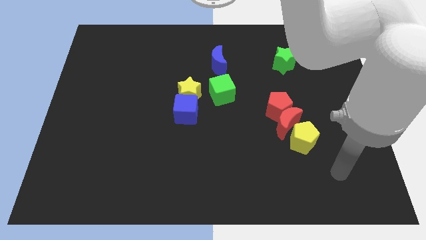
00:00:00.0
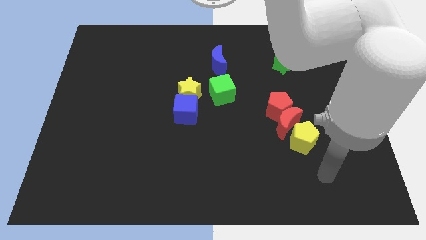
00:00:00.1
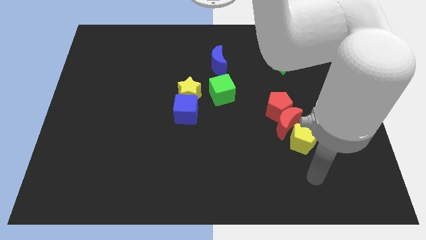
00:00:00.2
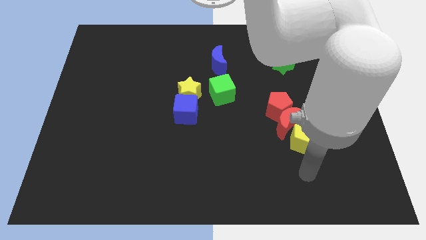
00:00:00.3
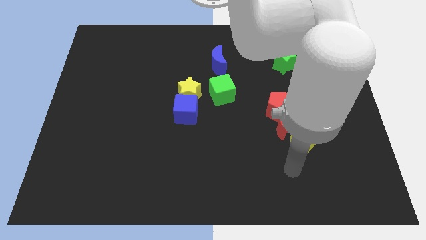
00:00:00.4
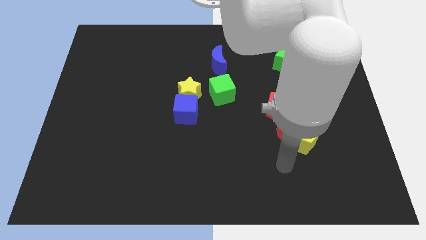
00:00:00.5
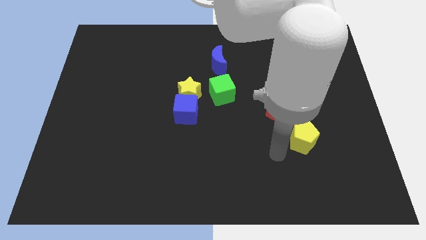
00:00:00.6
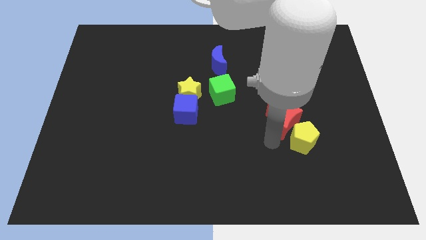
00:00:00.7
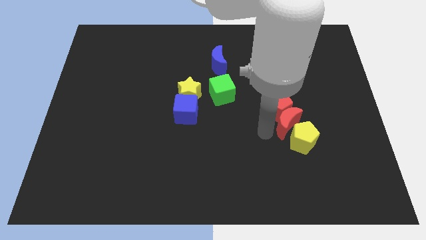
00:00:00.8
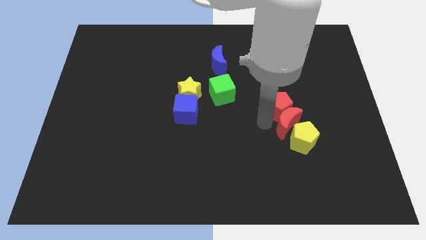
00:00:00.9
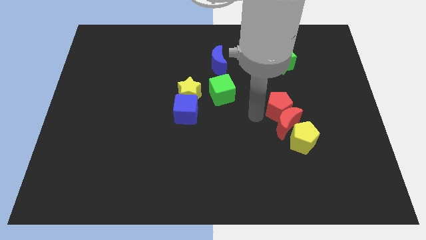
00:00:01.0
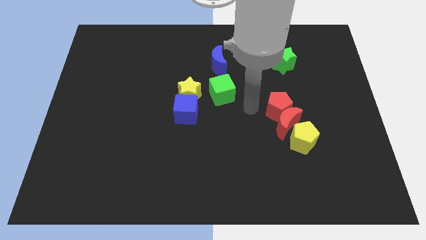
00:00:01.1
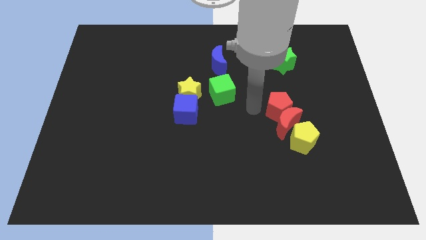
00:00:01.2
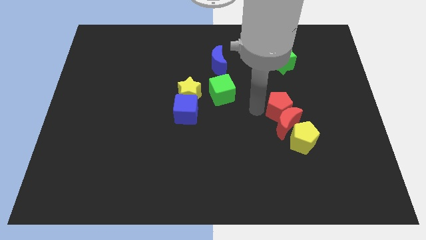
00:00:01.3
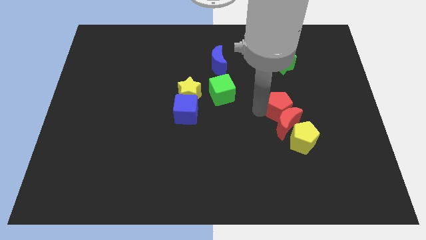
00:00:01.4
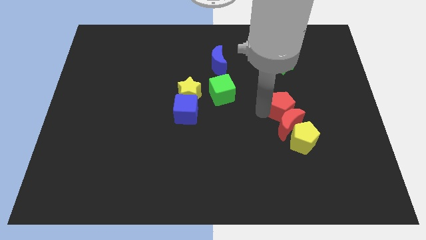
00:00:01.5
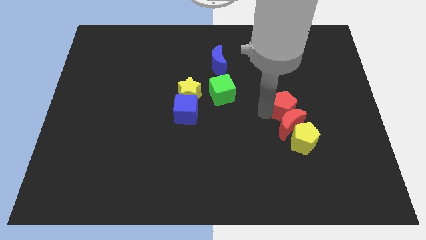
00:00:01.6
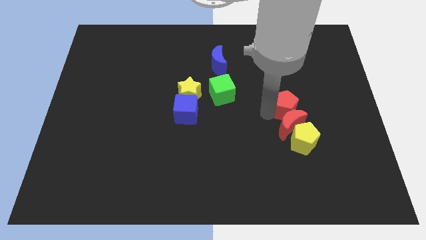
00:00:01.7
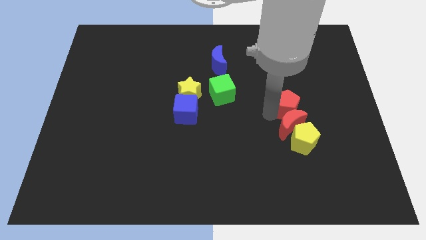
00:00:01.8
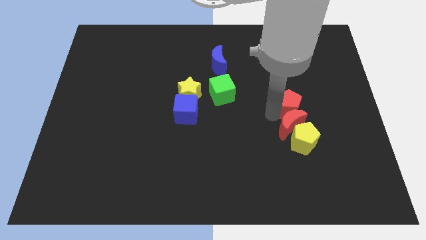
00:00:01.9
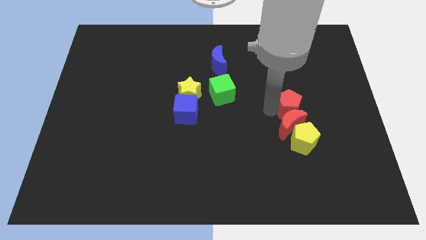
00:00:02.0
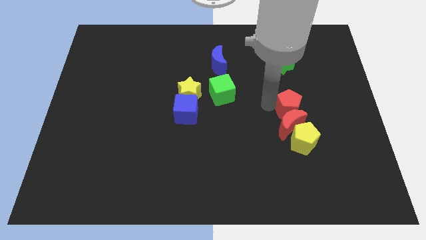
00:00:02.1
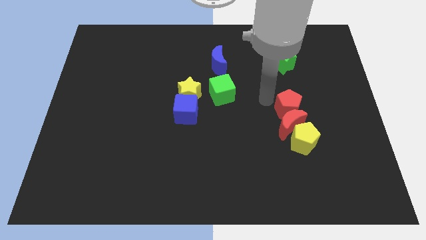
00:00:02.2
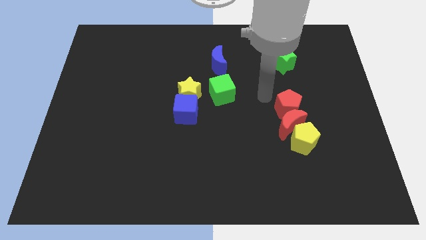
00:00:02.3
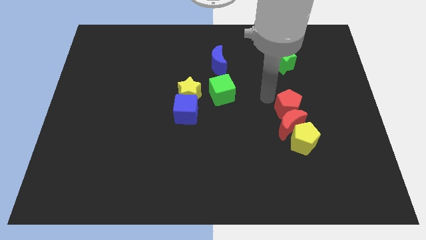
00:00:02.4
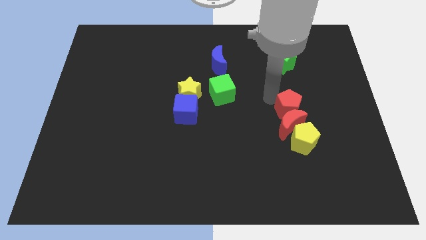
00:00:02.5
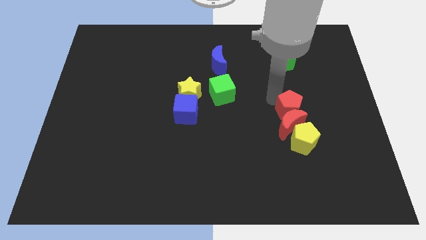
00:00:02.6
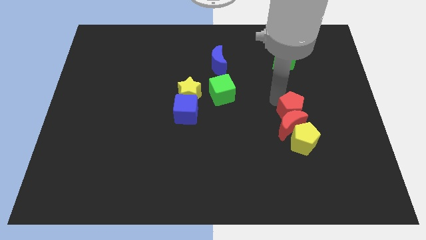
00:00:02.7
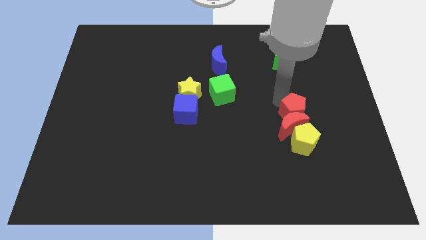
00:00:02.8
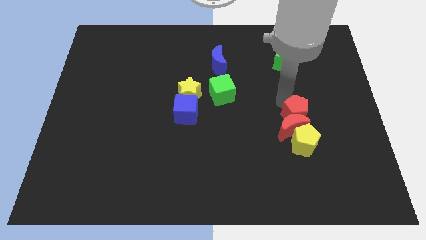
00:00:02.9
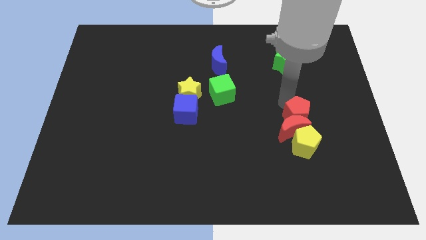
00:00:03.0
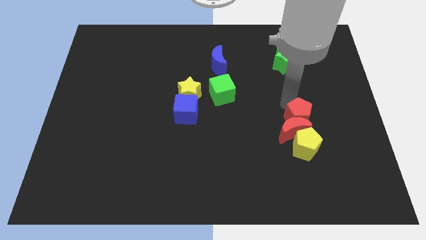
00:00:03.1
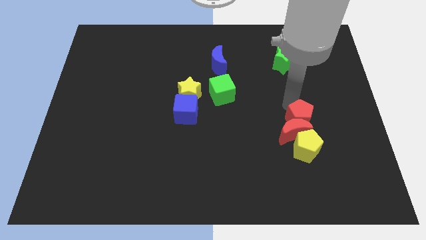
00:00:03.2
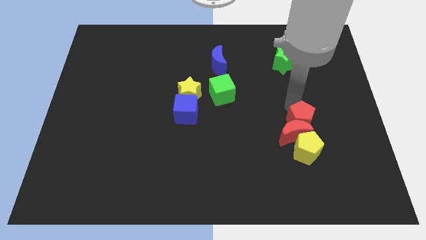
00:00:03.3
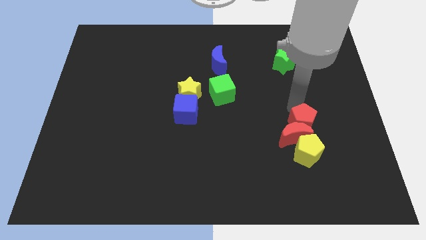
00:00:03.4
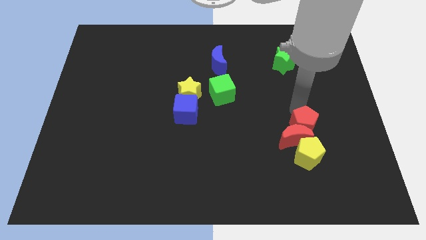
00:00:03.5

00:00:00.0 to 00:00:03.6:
slightly push the red pentagon downwards and right diagonally

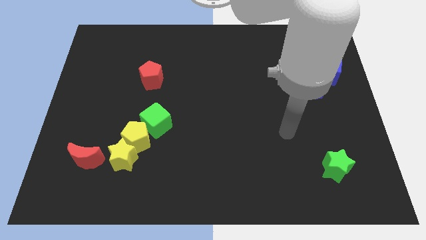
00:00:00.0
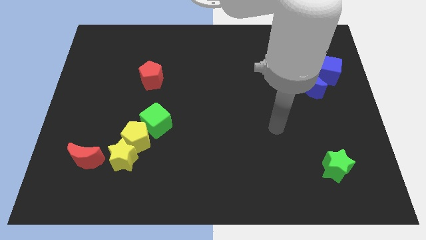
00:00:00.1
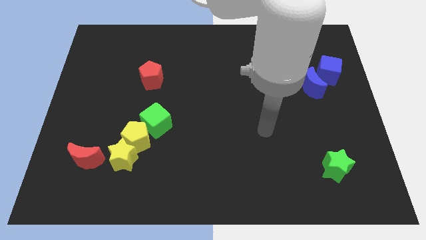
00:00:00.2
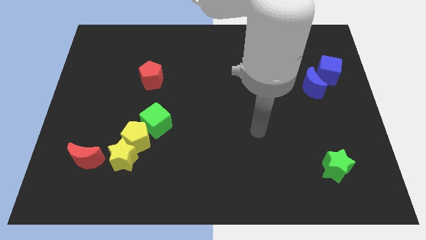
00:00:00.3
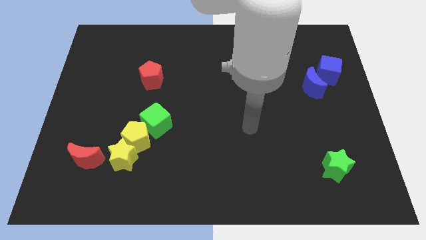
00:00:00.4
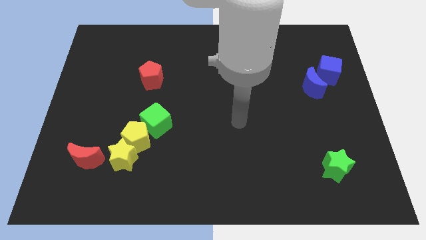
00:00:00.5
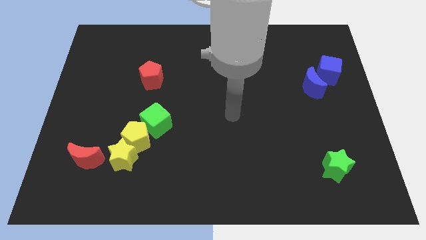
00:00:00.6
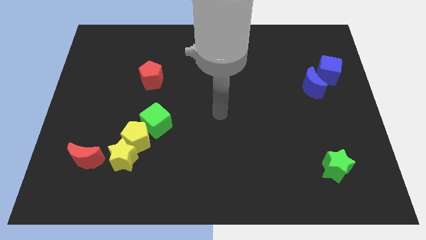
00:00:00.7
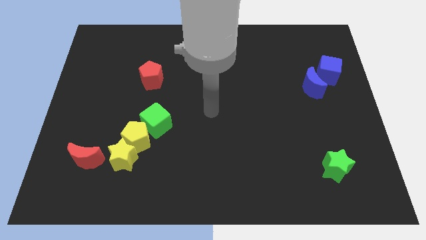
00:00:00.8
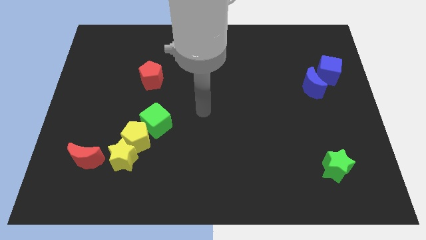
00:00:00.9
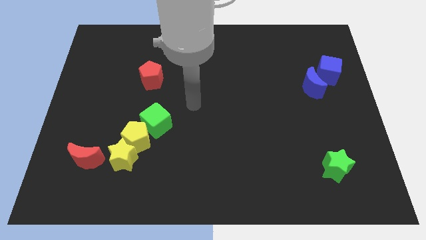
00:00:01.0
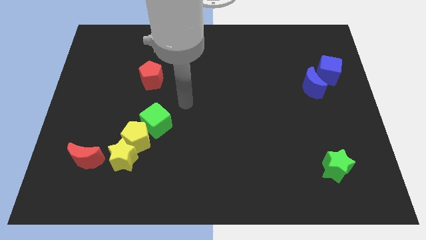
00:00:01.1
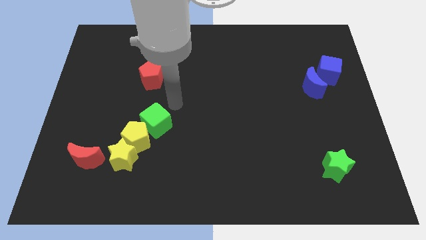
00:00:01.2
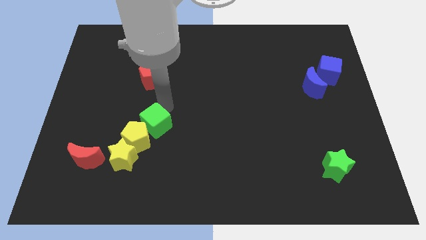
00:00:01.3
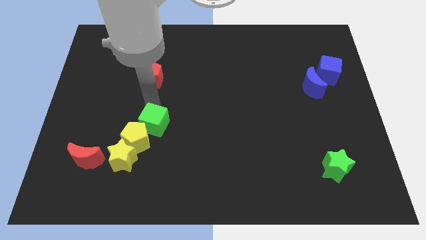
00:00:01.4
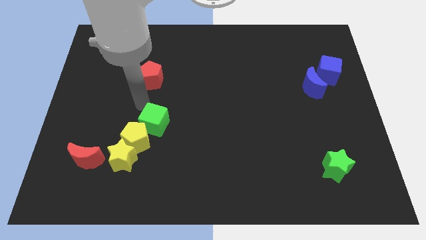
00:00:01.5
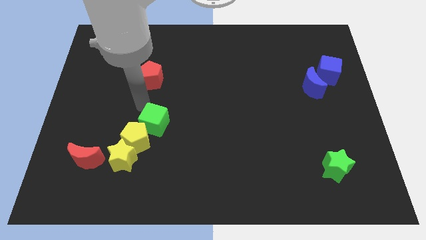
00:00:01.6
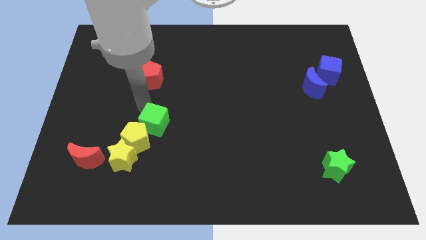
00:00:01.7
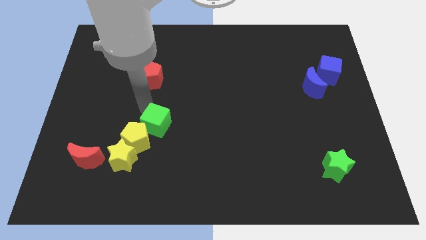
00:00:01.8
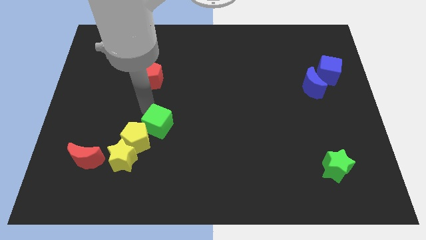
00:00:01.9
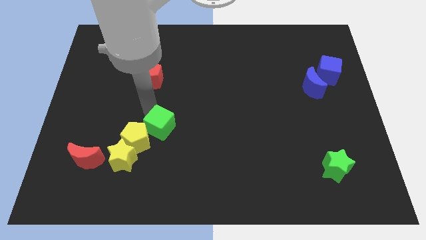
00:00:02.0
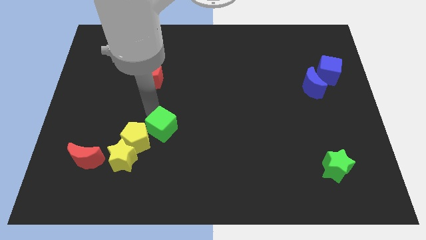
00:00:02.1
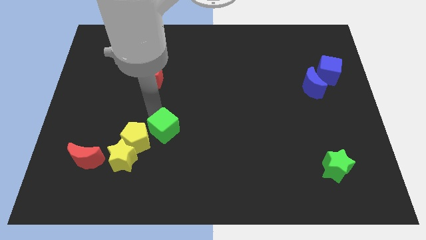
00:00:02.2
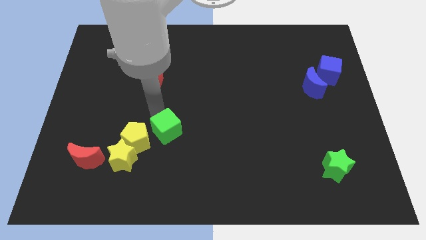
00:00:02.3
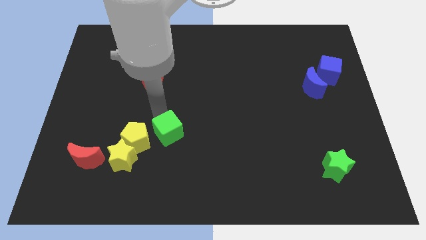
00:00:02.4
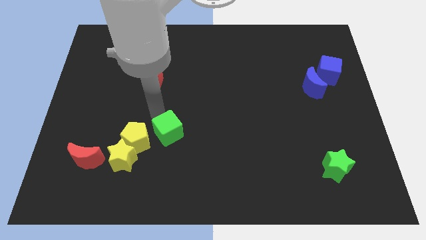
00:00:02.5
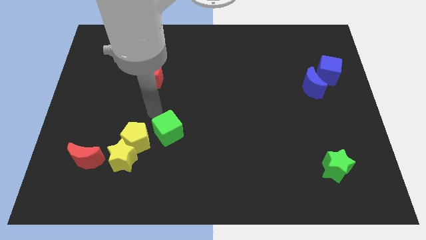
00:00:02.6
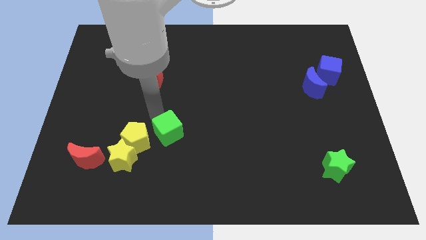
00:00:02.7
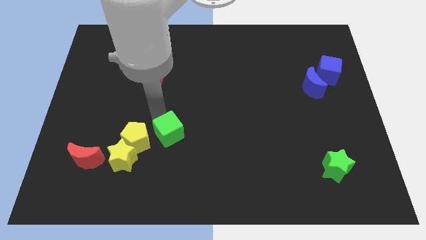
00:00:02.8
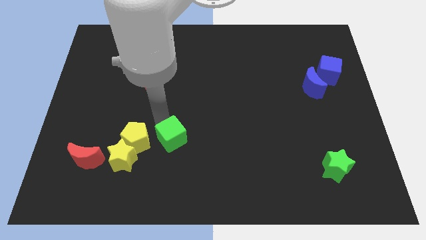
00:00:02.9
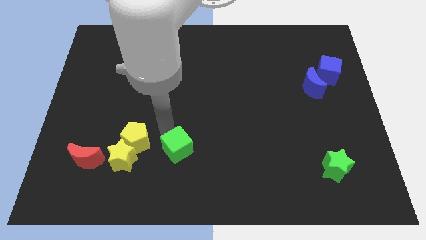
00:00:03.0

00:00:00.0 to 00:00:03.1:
slide the green cube a little bit down and right

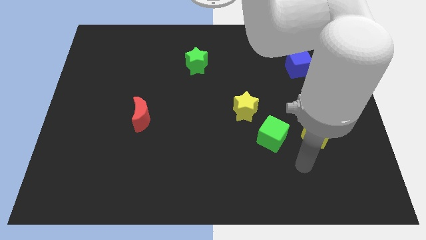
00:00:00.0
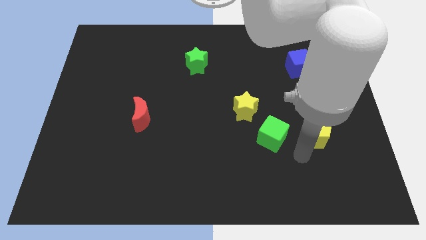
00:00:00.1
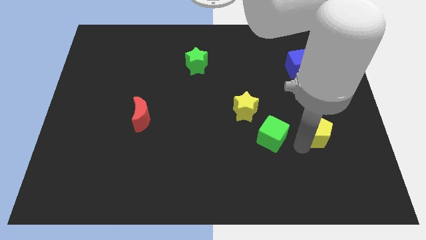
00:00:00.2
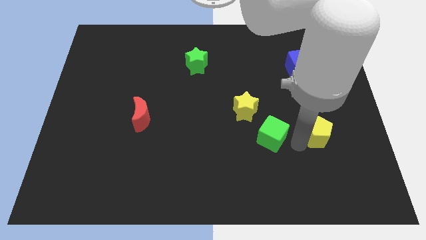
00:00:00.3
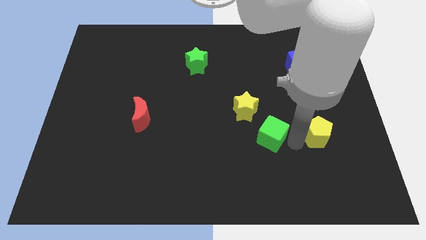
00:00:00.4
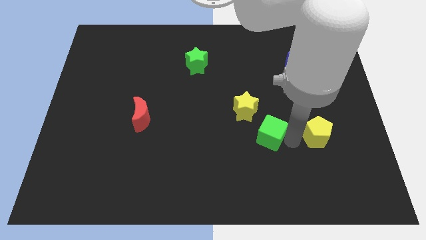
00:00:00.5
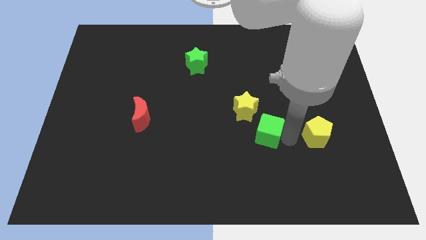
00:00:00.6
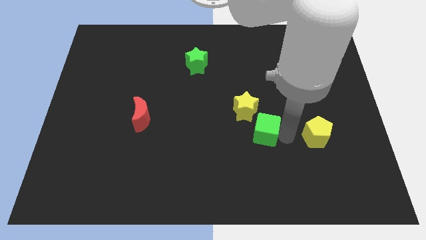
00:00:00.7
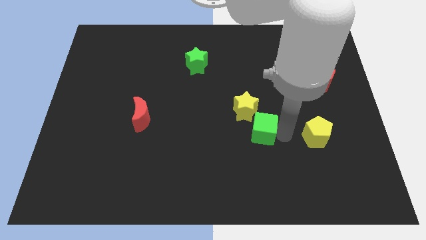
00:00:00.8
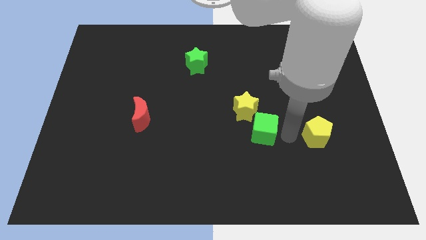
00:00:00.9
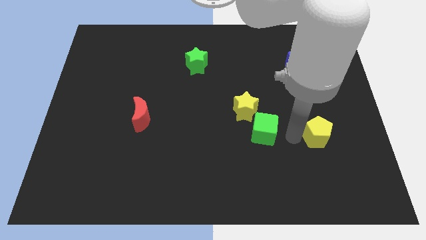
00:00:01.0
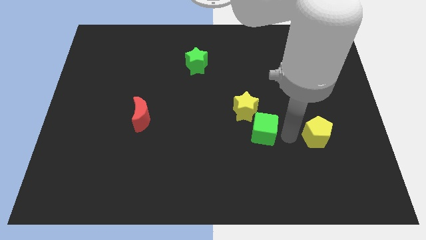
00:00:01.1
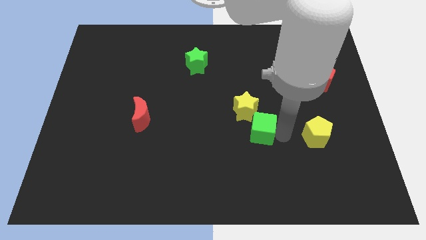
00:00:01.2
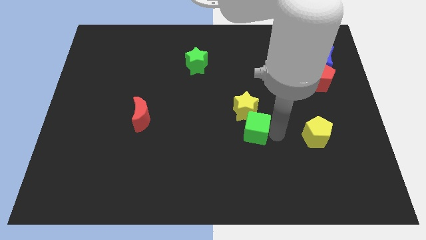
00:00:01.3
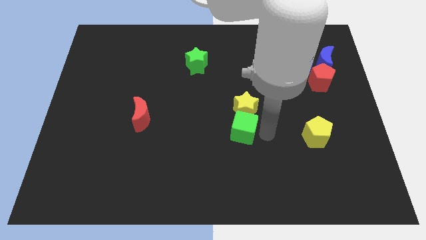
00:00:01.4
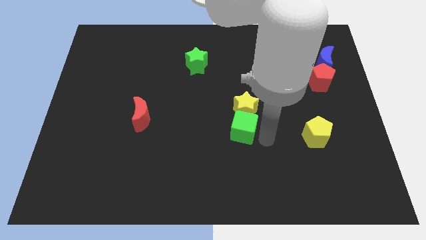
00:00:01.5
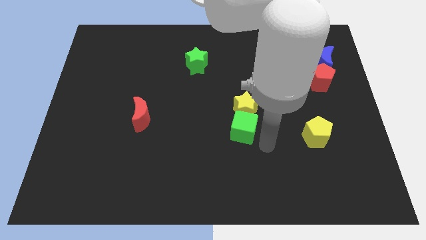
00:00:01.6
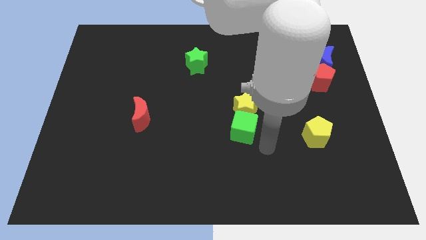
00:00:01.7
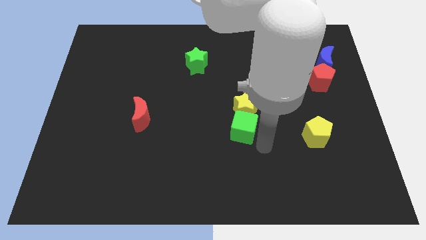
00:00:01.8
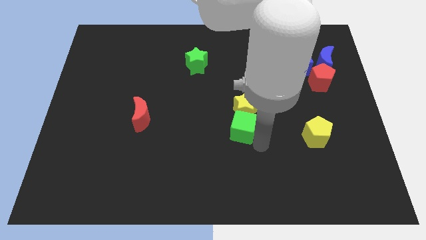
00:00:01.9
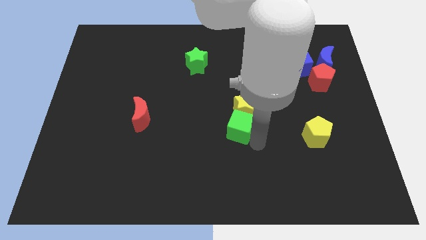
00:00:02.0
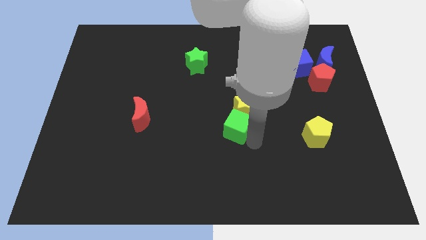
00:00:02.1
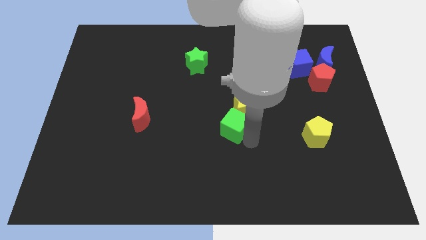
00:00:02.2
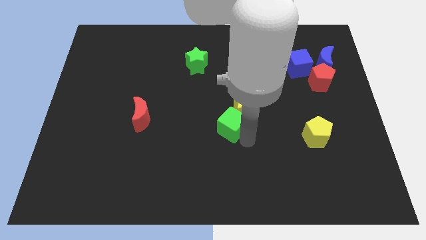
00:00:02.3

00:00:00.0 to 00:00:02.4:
move the green cube a bit up and then to the left
